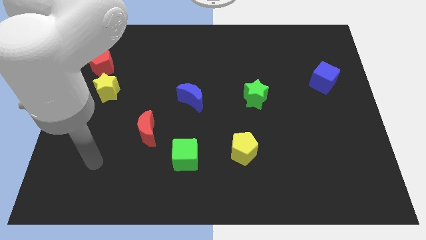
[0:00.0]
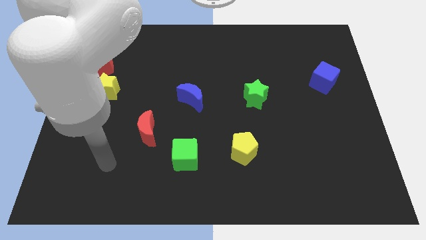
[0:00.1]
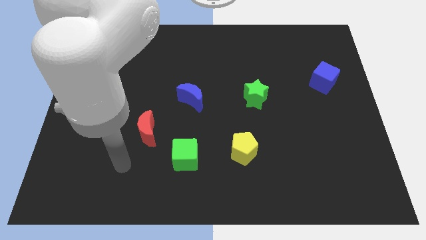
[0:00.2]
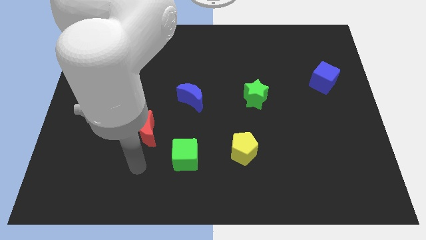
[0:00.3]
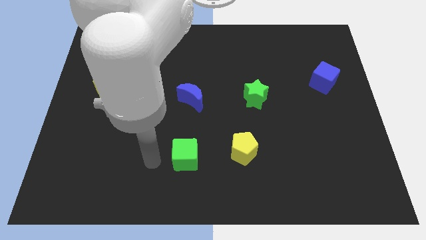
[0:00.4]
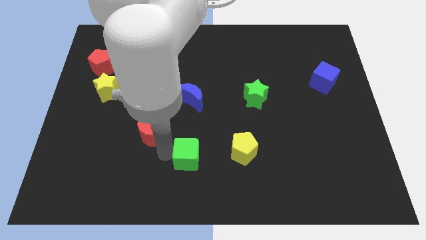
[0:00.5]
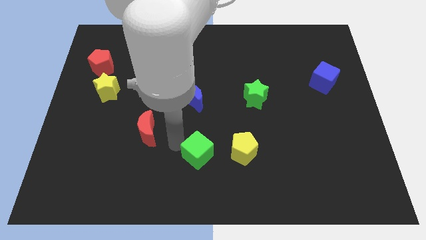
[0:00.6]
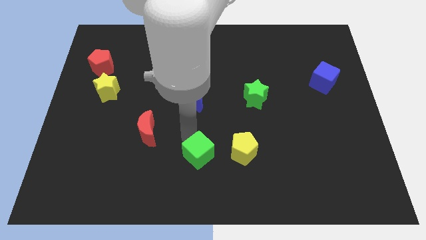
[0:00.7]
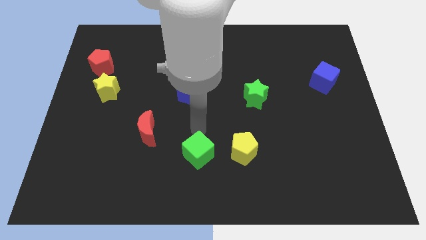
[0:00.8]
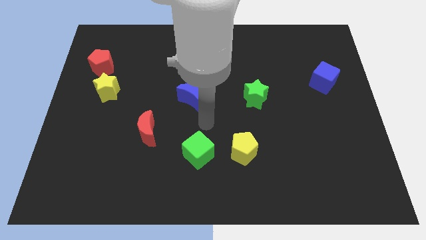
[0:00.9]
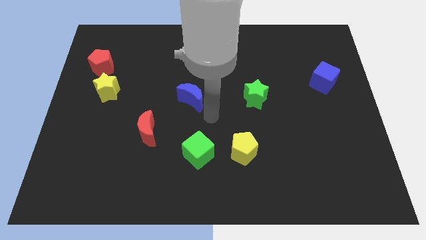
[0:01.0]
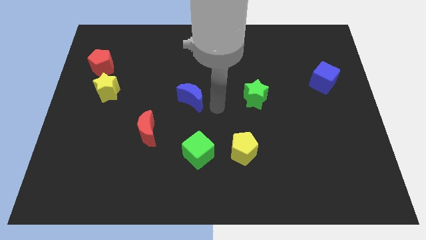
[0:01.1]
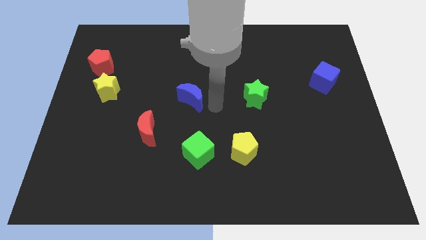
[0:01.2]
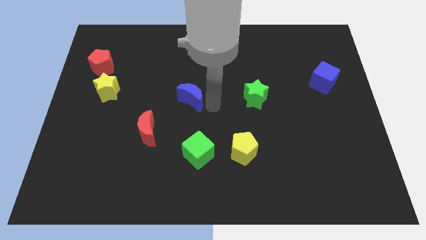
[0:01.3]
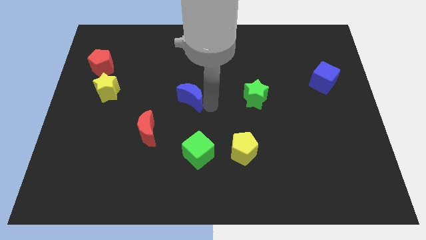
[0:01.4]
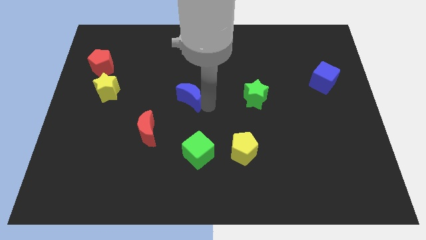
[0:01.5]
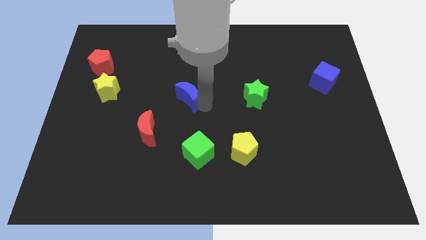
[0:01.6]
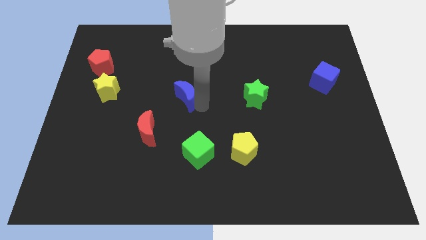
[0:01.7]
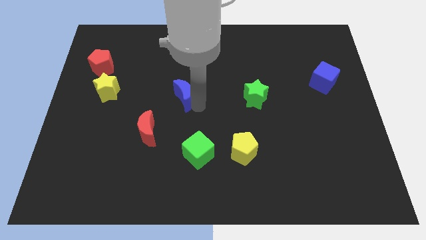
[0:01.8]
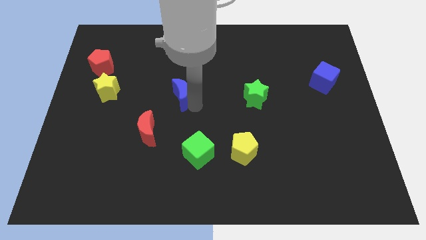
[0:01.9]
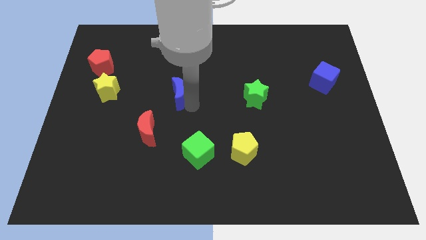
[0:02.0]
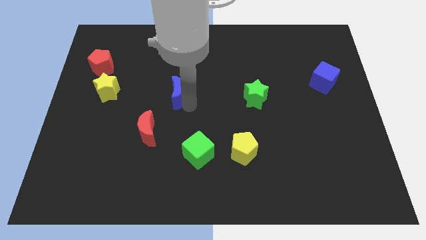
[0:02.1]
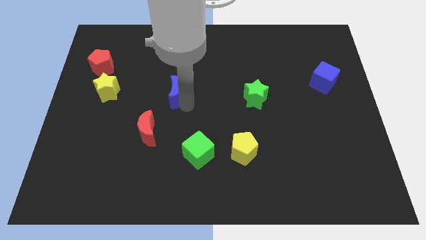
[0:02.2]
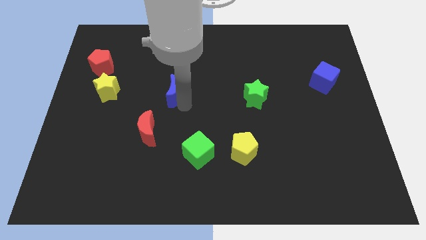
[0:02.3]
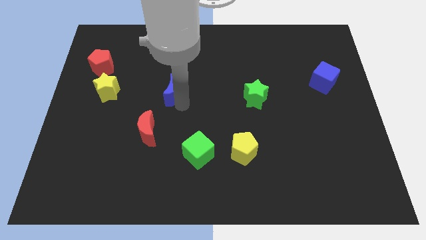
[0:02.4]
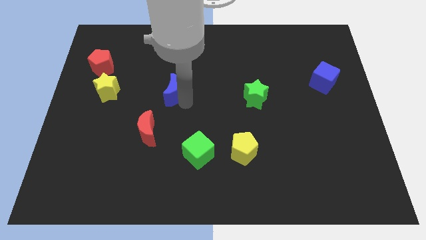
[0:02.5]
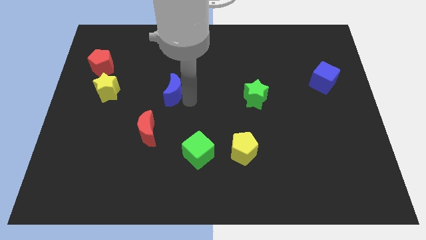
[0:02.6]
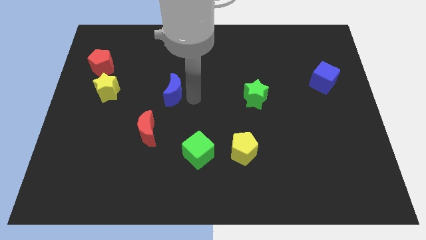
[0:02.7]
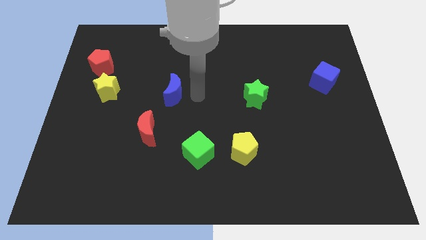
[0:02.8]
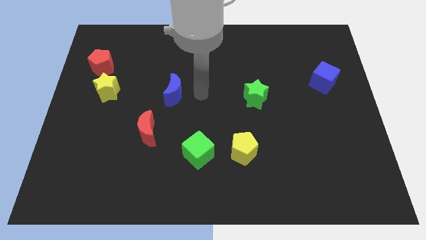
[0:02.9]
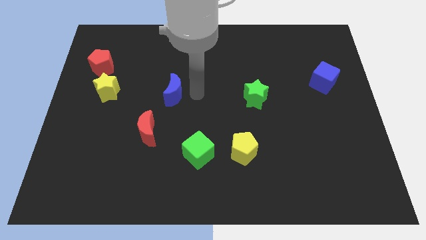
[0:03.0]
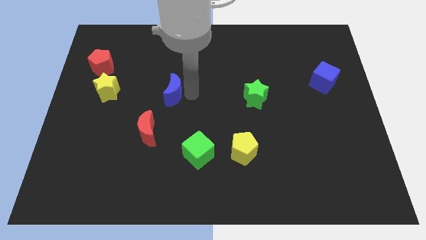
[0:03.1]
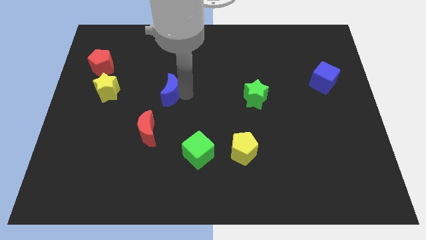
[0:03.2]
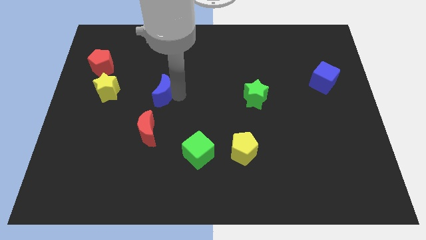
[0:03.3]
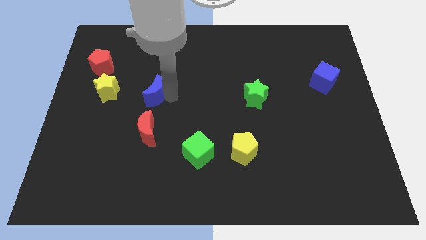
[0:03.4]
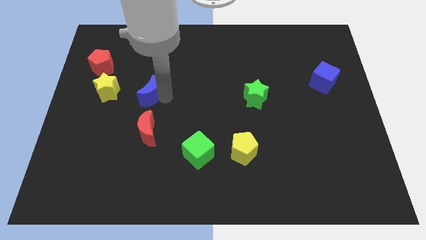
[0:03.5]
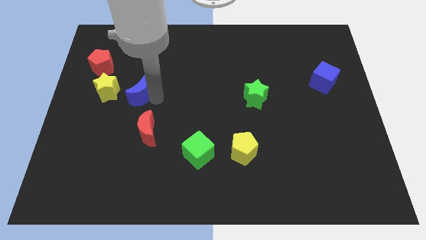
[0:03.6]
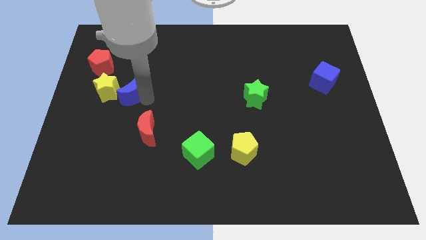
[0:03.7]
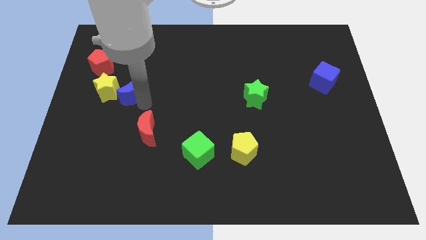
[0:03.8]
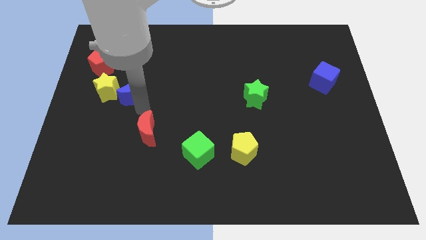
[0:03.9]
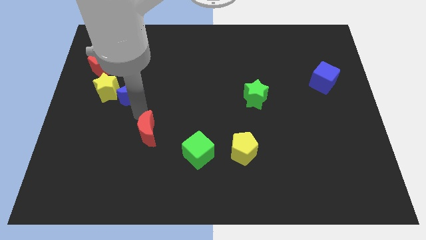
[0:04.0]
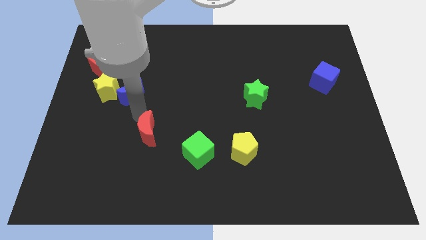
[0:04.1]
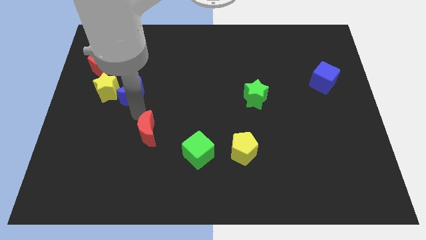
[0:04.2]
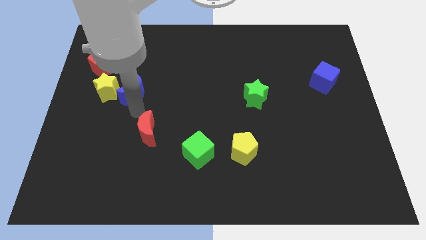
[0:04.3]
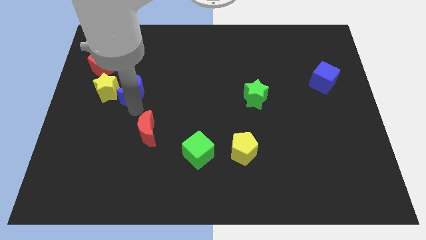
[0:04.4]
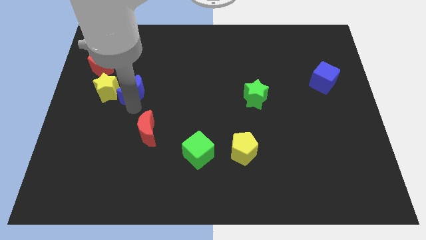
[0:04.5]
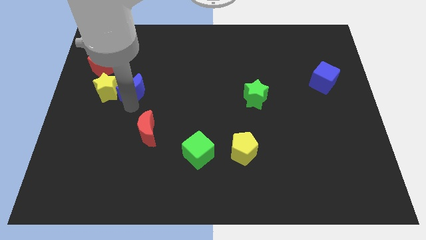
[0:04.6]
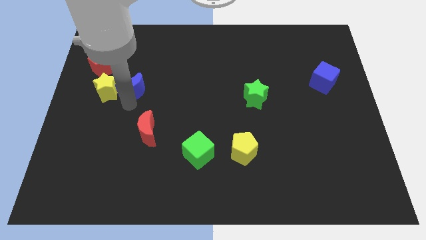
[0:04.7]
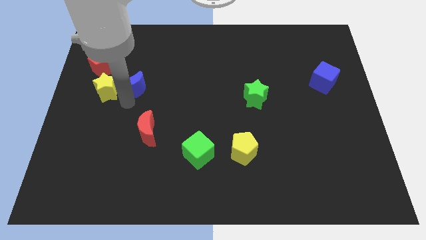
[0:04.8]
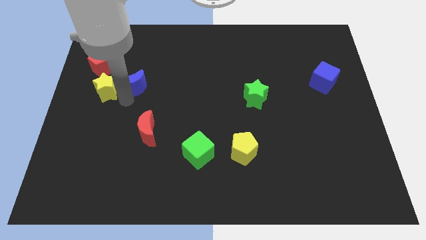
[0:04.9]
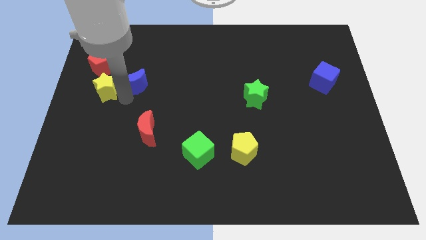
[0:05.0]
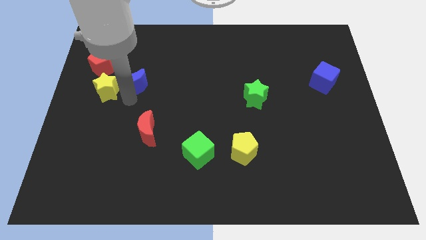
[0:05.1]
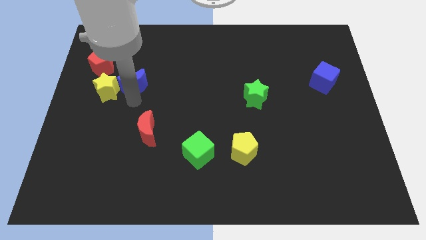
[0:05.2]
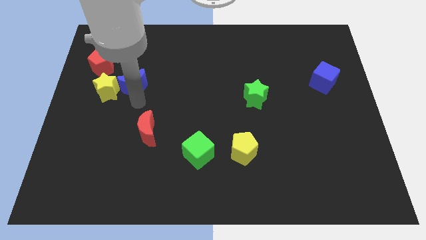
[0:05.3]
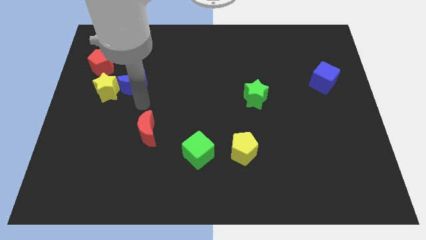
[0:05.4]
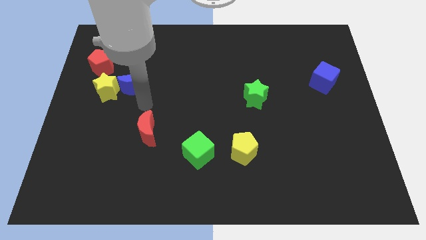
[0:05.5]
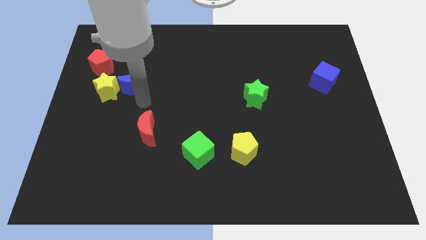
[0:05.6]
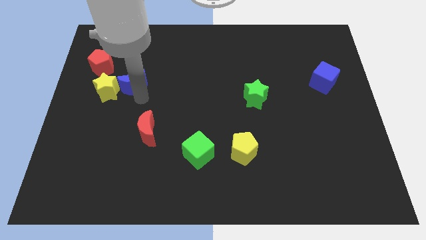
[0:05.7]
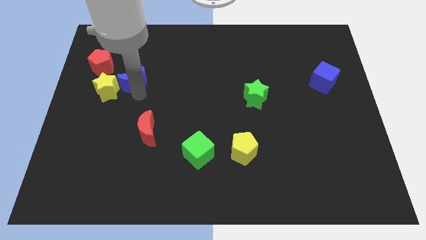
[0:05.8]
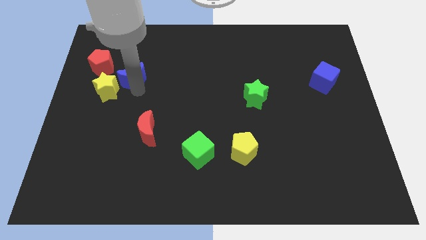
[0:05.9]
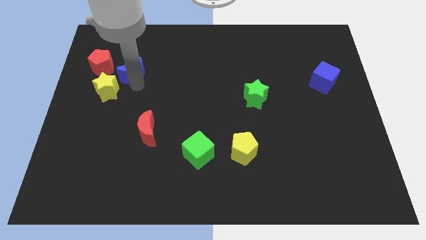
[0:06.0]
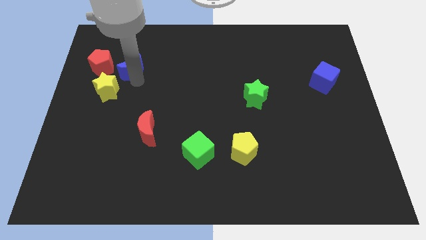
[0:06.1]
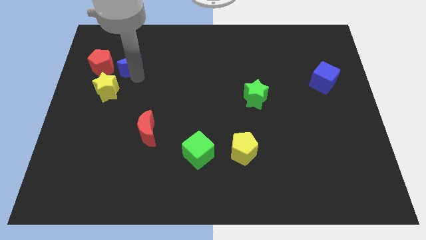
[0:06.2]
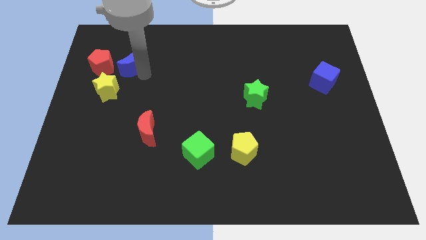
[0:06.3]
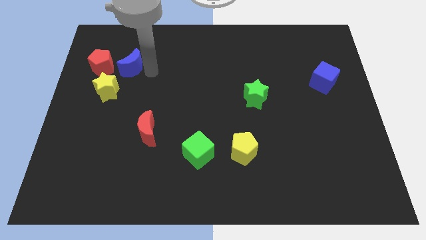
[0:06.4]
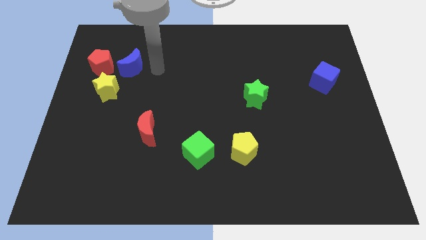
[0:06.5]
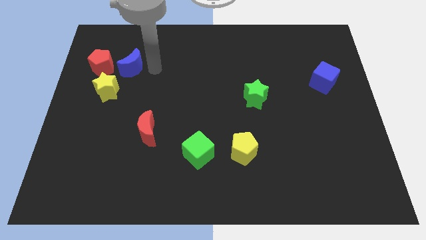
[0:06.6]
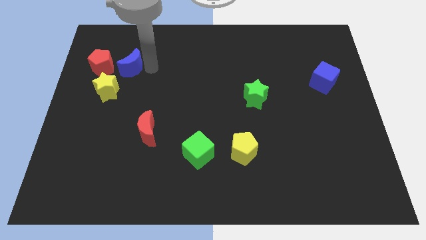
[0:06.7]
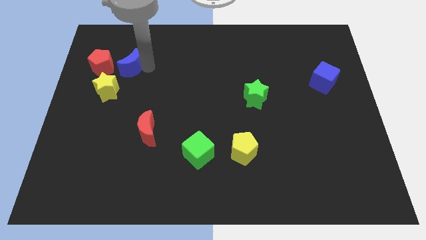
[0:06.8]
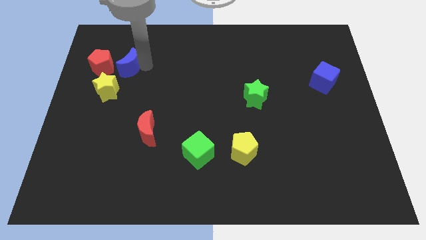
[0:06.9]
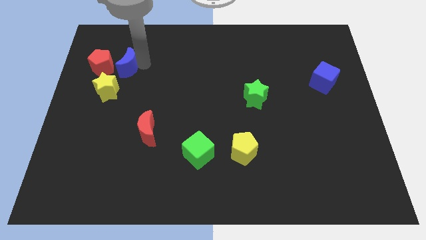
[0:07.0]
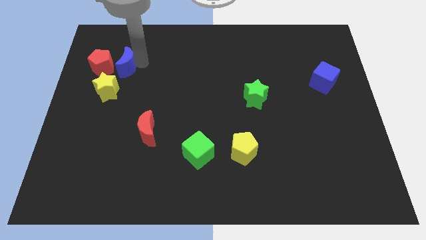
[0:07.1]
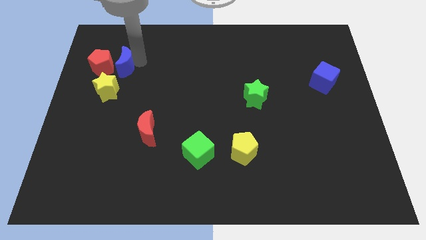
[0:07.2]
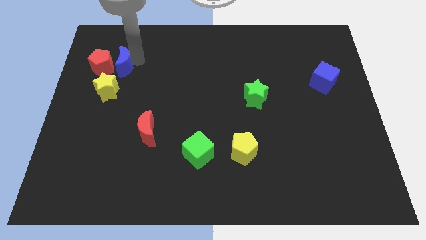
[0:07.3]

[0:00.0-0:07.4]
move the blue moon towards the red pentagon

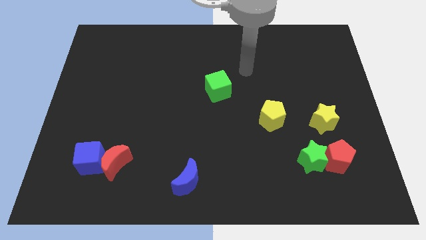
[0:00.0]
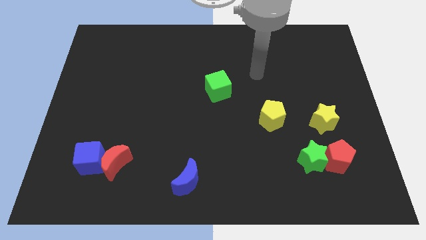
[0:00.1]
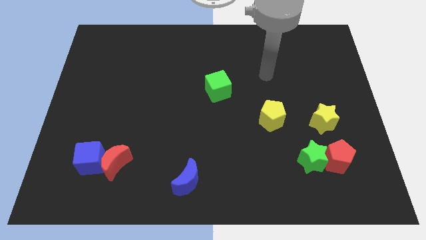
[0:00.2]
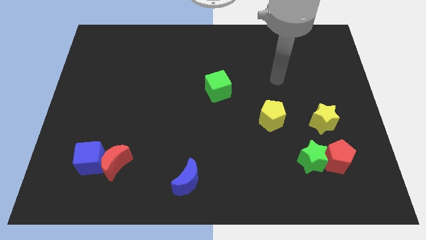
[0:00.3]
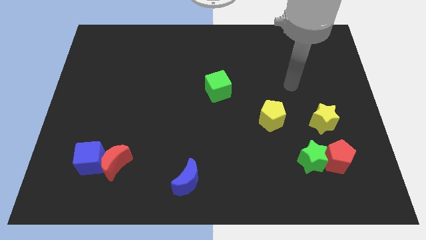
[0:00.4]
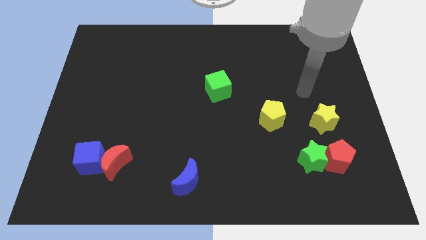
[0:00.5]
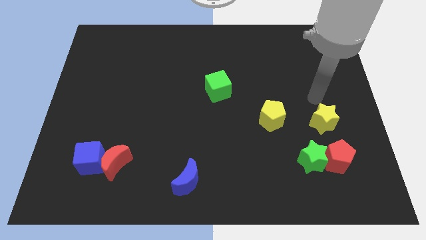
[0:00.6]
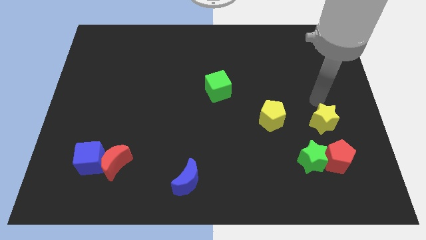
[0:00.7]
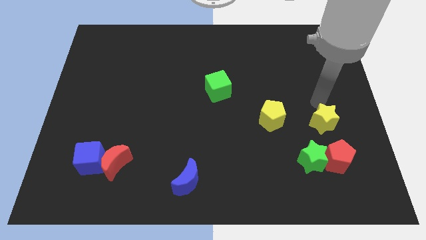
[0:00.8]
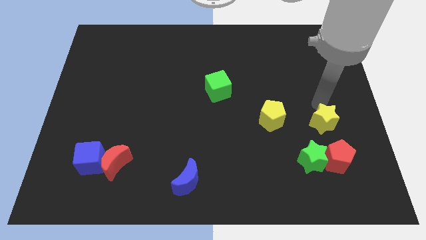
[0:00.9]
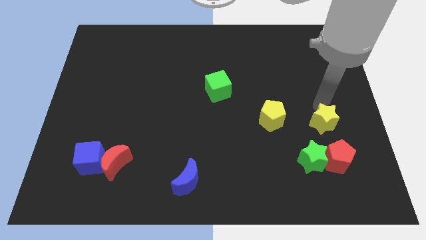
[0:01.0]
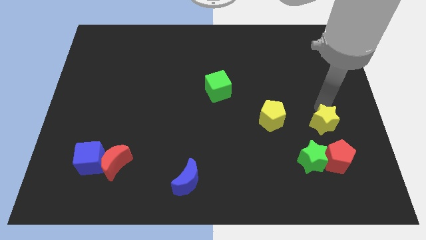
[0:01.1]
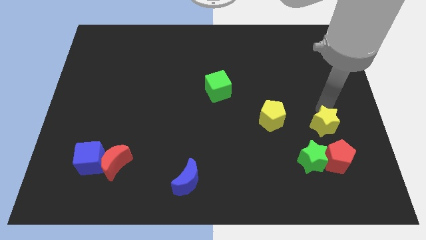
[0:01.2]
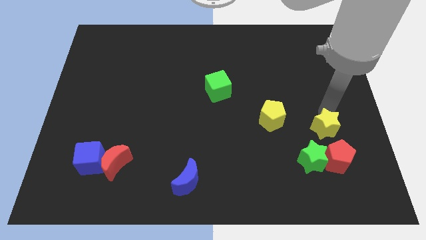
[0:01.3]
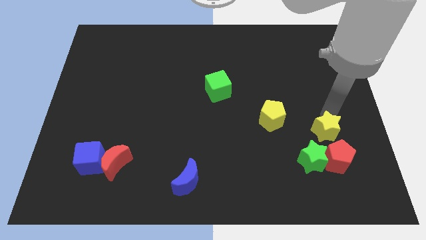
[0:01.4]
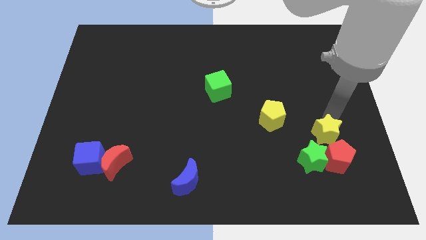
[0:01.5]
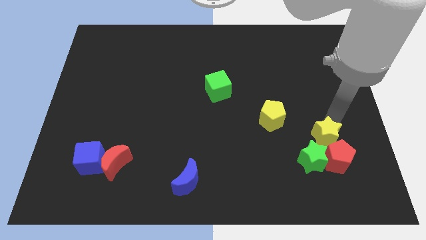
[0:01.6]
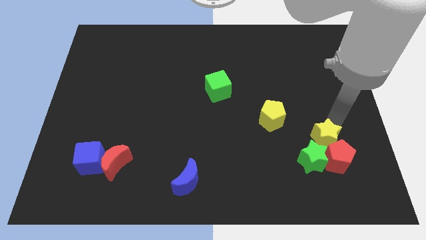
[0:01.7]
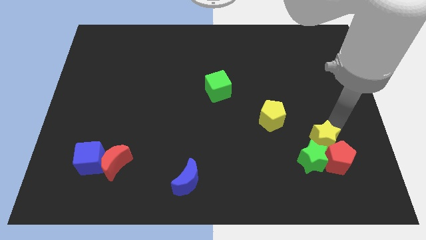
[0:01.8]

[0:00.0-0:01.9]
slide the yellow star close to the green star
